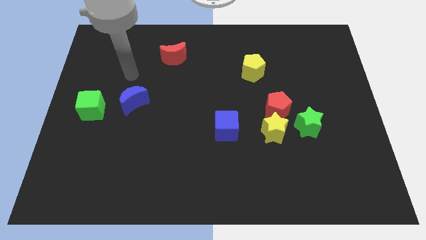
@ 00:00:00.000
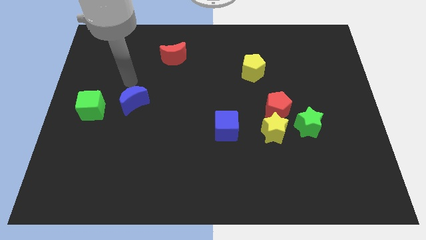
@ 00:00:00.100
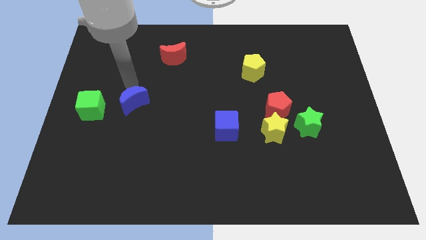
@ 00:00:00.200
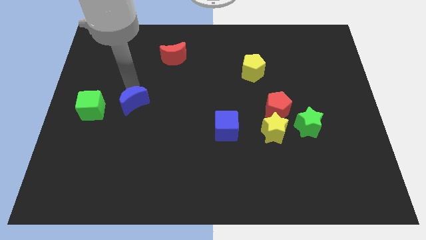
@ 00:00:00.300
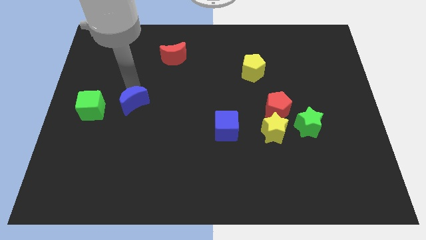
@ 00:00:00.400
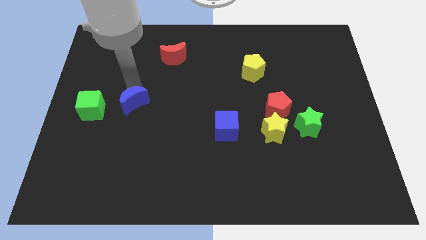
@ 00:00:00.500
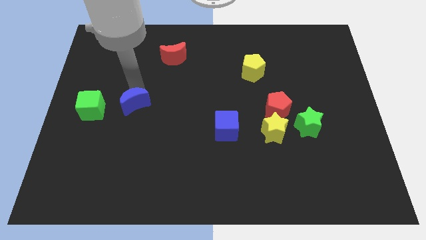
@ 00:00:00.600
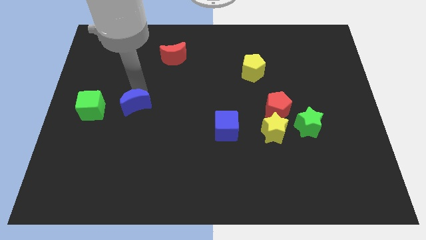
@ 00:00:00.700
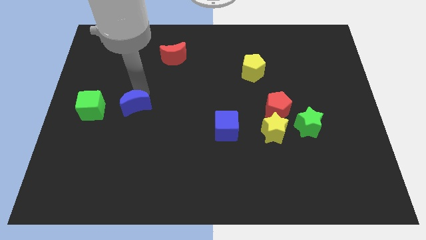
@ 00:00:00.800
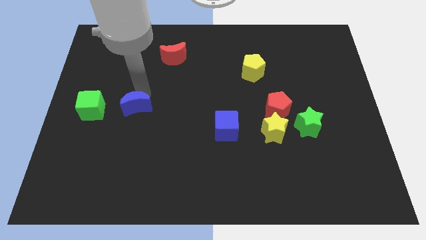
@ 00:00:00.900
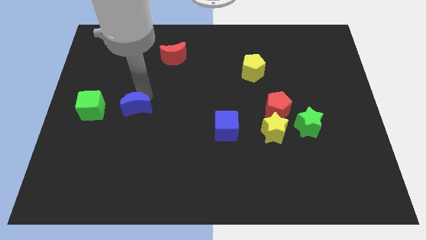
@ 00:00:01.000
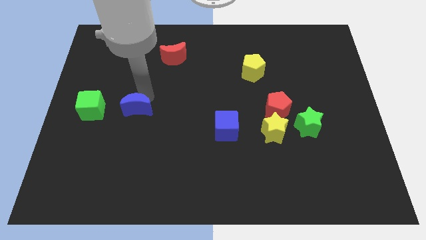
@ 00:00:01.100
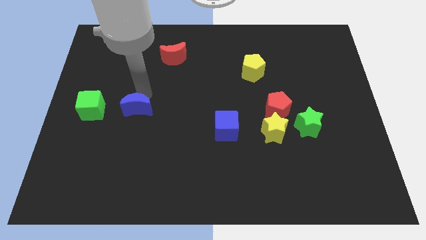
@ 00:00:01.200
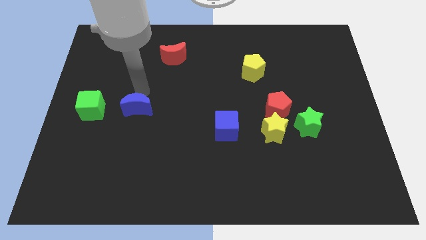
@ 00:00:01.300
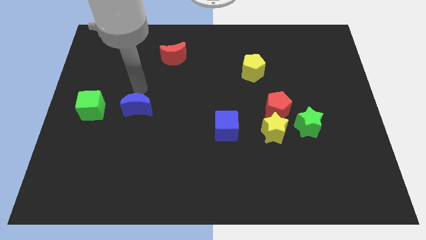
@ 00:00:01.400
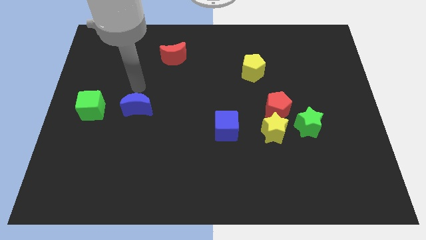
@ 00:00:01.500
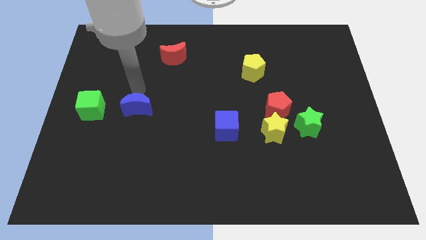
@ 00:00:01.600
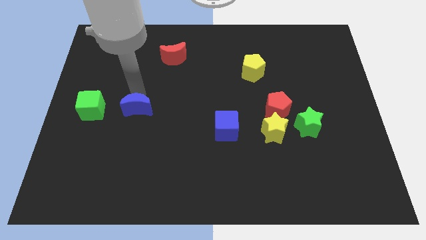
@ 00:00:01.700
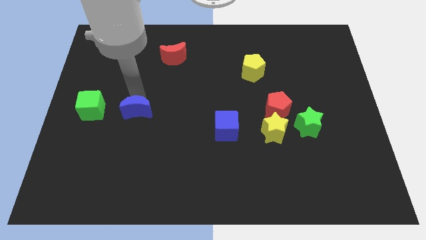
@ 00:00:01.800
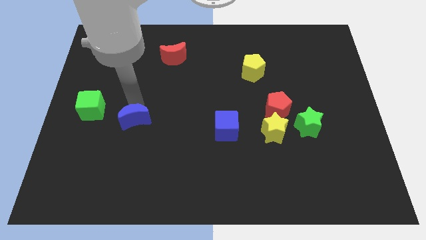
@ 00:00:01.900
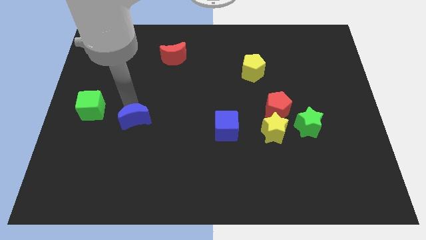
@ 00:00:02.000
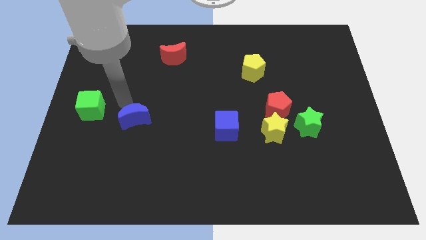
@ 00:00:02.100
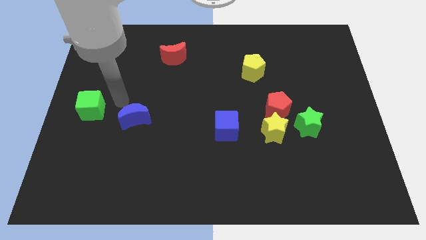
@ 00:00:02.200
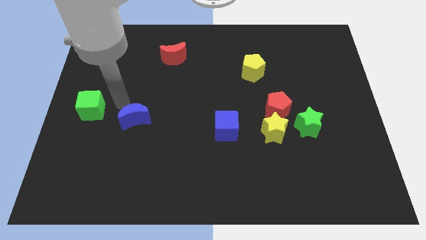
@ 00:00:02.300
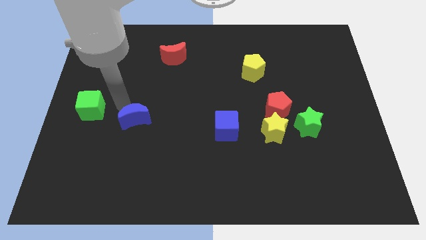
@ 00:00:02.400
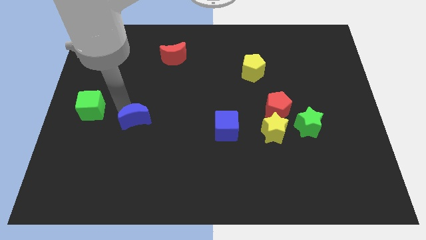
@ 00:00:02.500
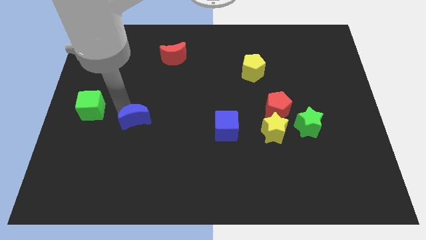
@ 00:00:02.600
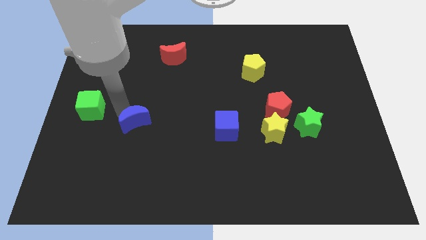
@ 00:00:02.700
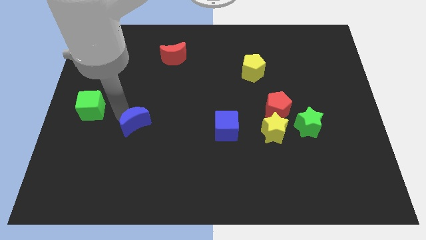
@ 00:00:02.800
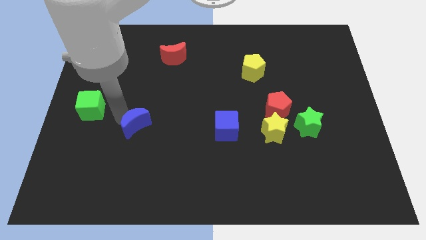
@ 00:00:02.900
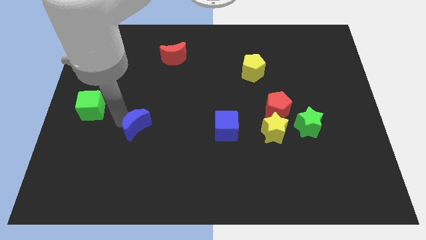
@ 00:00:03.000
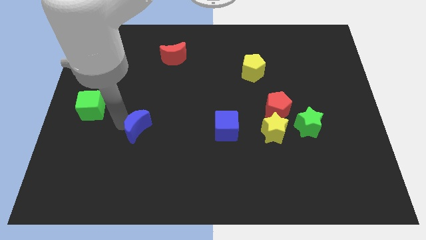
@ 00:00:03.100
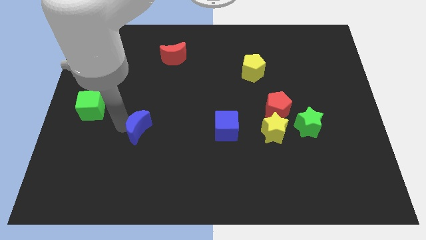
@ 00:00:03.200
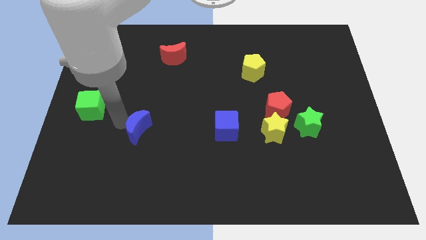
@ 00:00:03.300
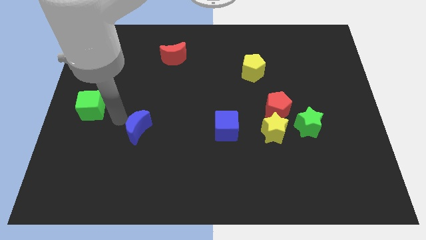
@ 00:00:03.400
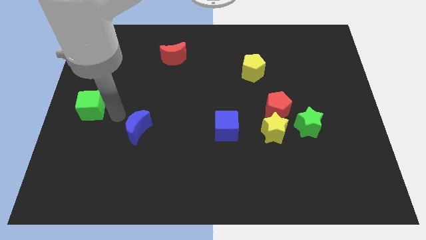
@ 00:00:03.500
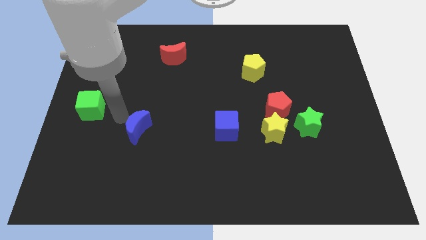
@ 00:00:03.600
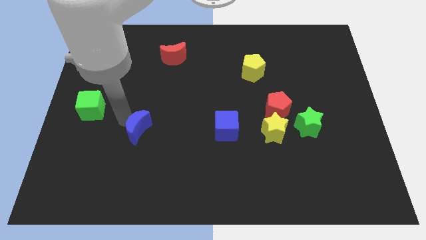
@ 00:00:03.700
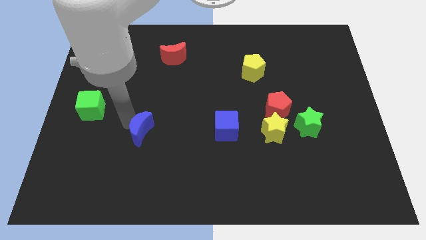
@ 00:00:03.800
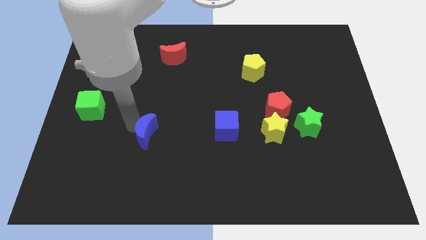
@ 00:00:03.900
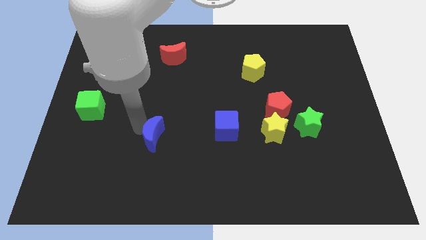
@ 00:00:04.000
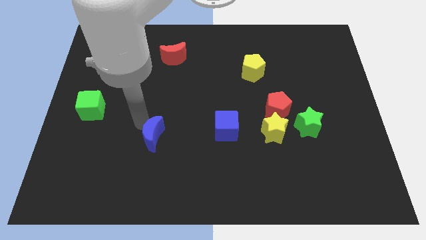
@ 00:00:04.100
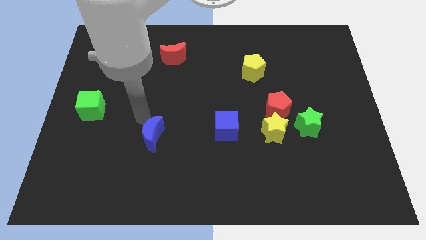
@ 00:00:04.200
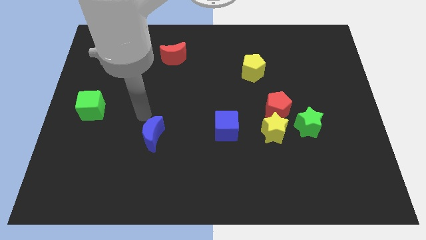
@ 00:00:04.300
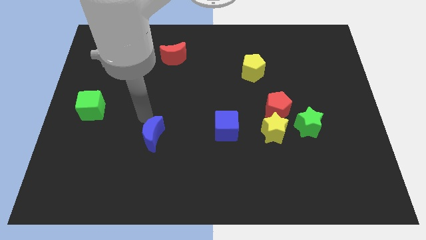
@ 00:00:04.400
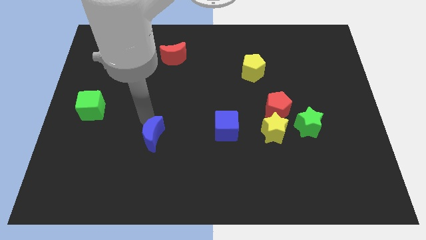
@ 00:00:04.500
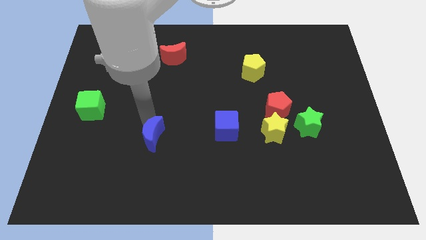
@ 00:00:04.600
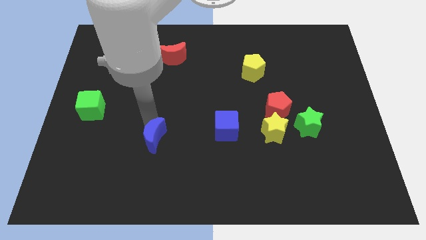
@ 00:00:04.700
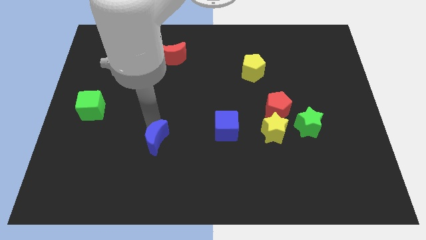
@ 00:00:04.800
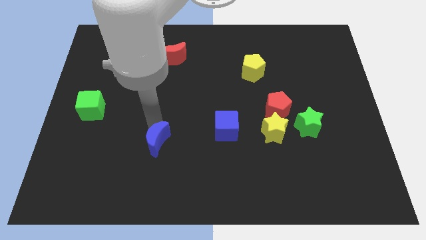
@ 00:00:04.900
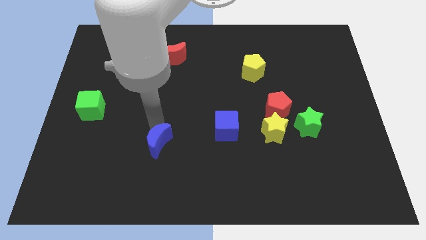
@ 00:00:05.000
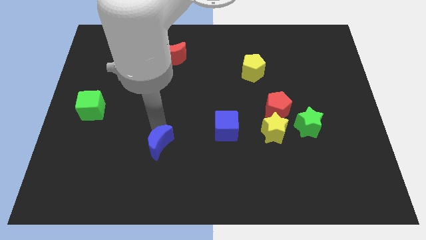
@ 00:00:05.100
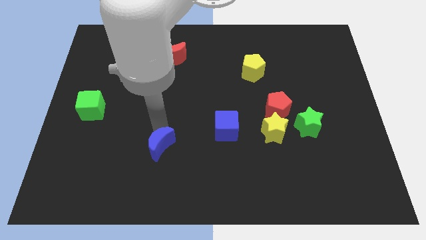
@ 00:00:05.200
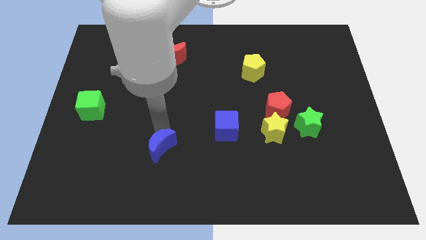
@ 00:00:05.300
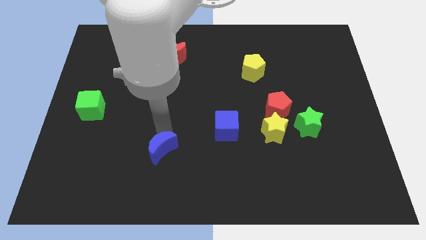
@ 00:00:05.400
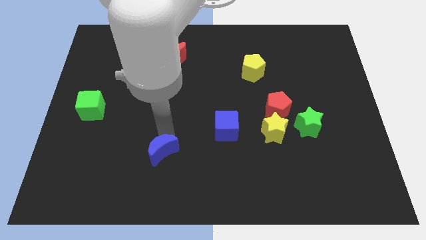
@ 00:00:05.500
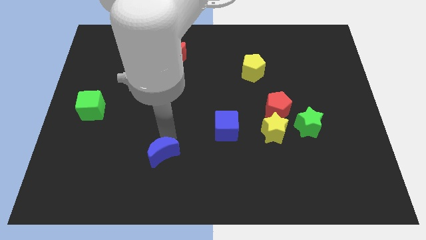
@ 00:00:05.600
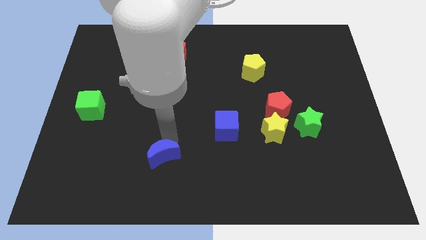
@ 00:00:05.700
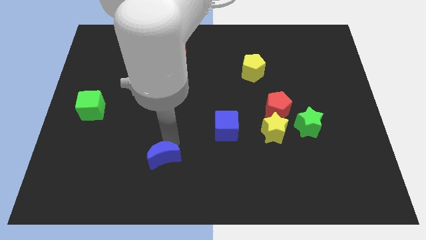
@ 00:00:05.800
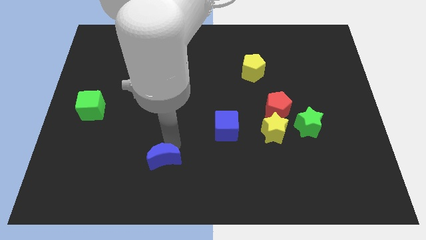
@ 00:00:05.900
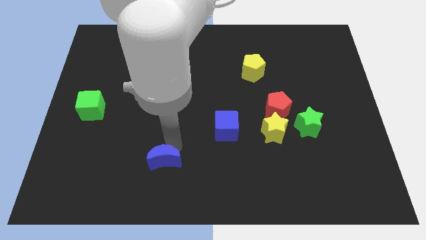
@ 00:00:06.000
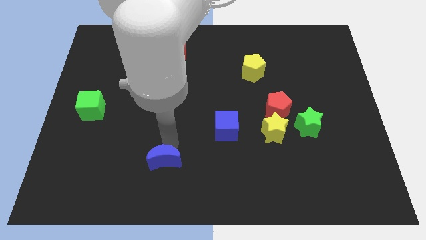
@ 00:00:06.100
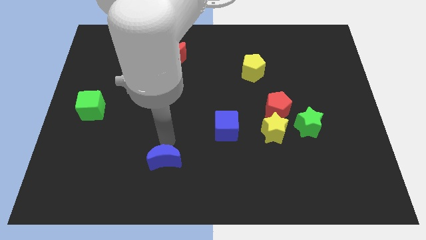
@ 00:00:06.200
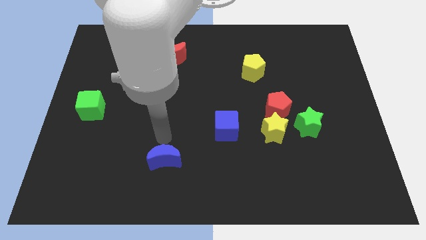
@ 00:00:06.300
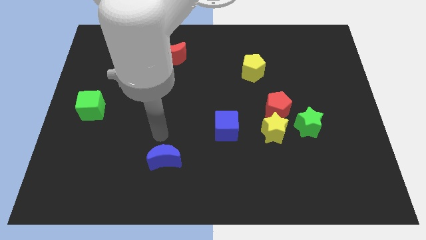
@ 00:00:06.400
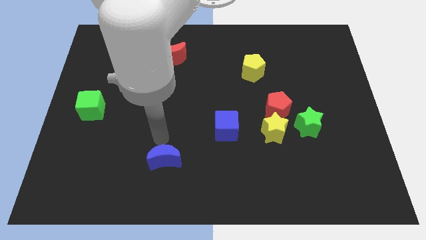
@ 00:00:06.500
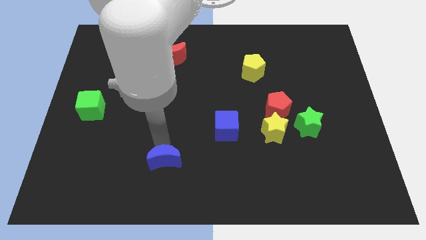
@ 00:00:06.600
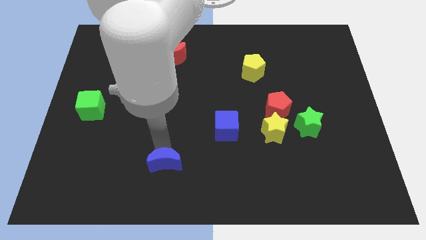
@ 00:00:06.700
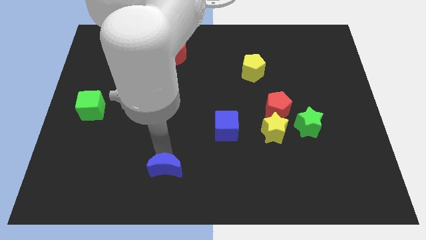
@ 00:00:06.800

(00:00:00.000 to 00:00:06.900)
put the blue moon to the bottom side
